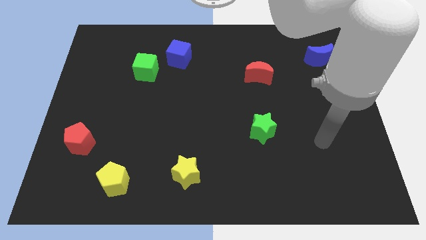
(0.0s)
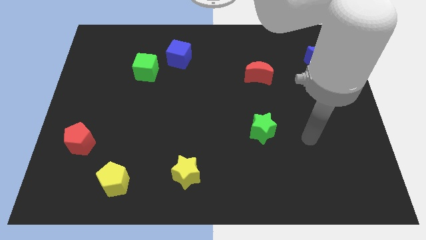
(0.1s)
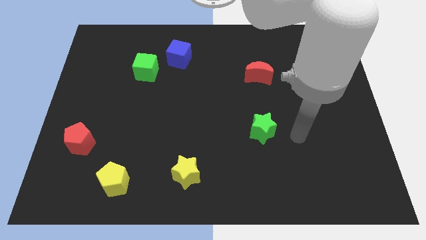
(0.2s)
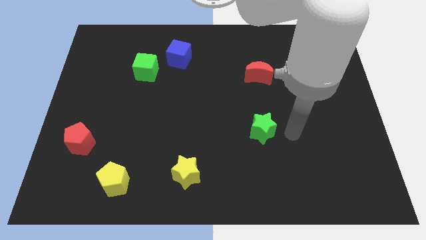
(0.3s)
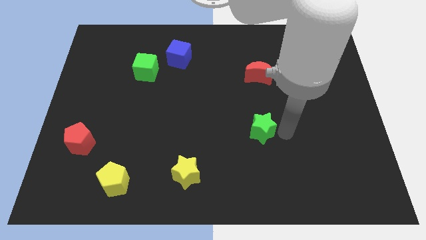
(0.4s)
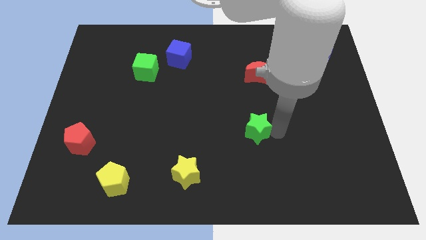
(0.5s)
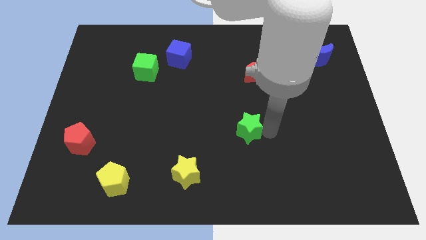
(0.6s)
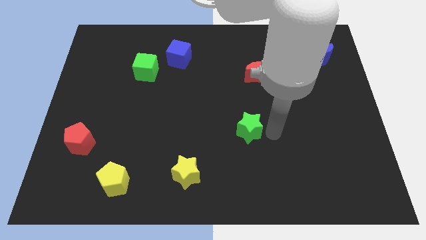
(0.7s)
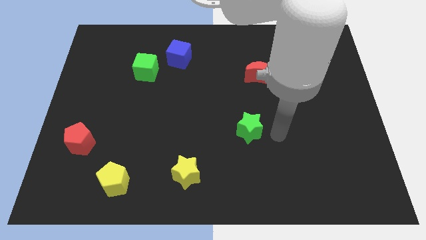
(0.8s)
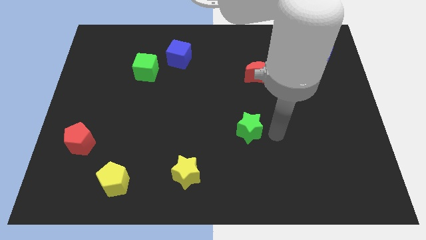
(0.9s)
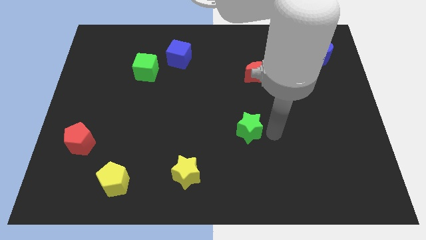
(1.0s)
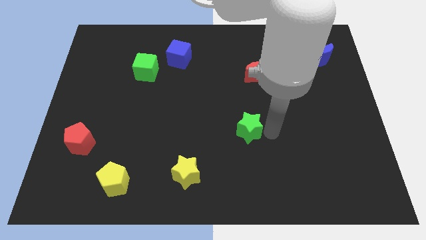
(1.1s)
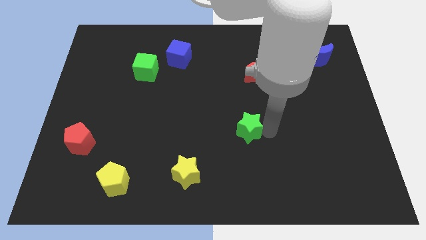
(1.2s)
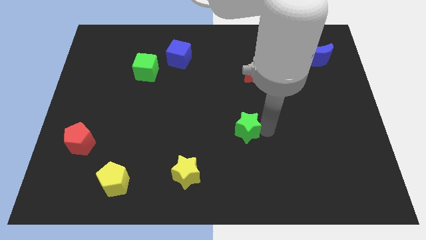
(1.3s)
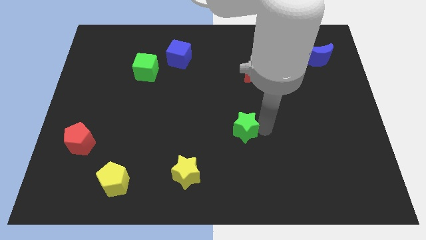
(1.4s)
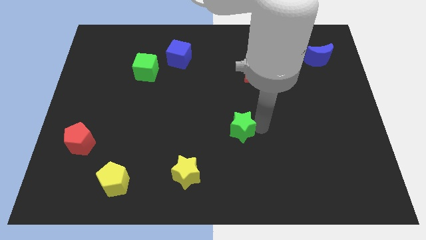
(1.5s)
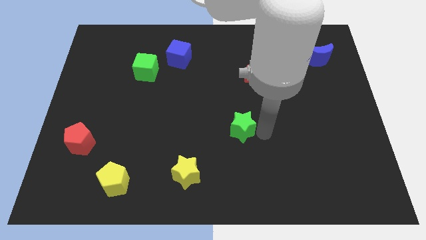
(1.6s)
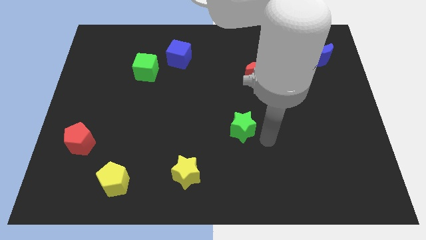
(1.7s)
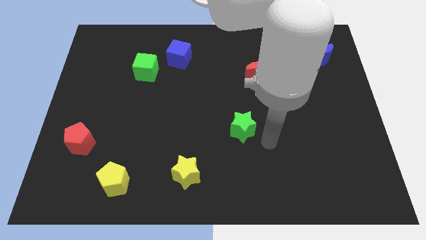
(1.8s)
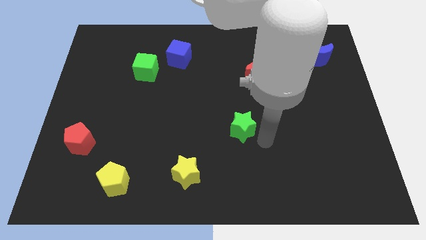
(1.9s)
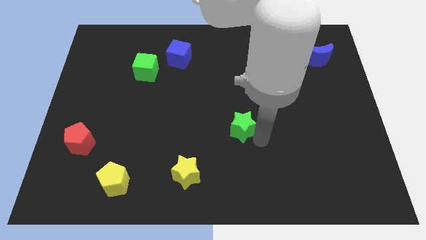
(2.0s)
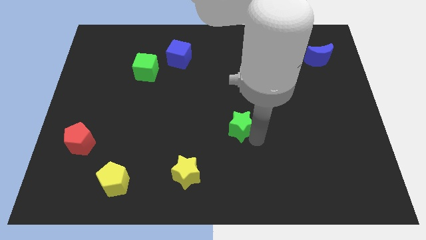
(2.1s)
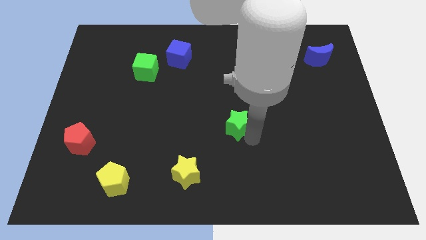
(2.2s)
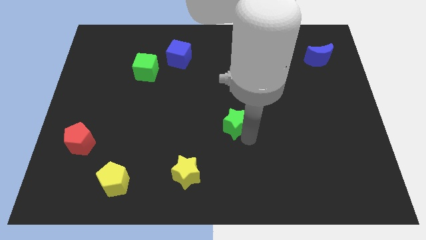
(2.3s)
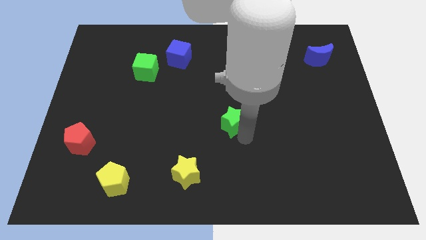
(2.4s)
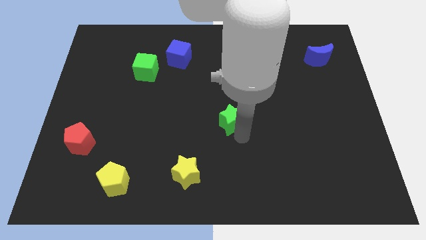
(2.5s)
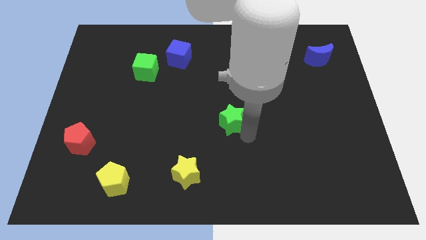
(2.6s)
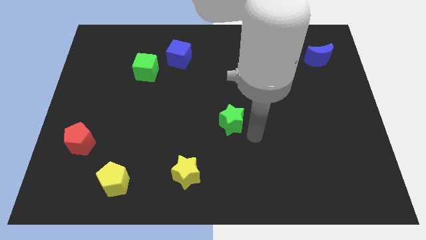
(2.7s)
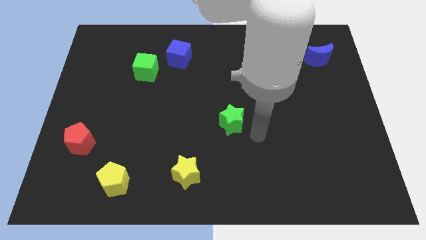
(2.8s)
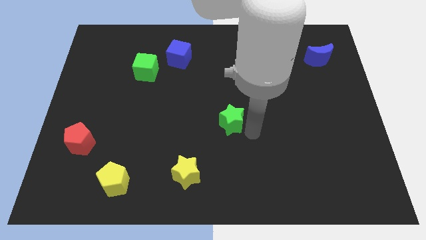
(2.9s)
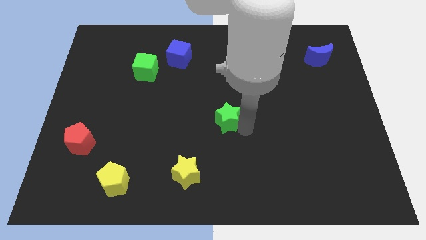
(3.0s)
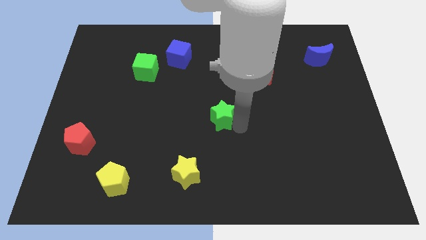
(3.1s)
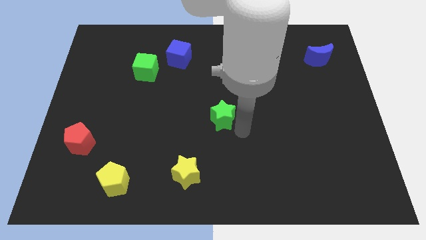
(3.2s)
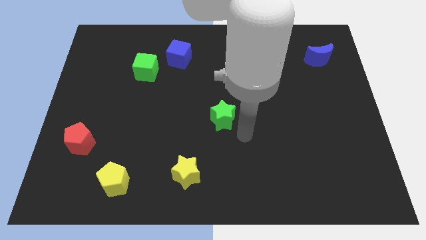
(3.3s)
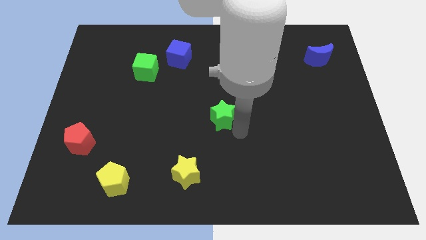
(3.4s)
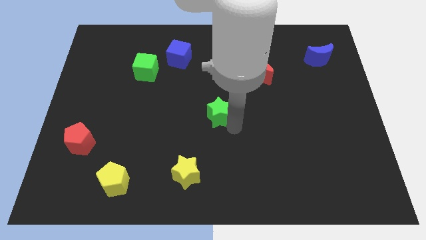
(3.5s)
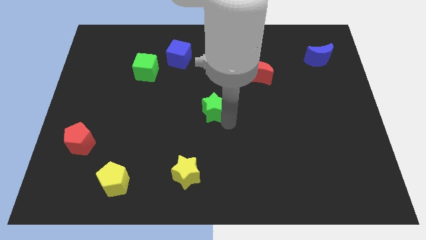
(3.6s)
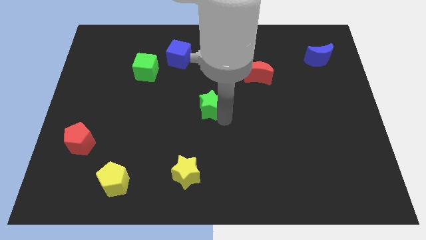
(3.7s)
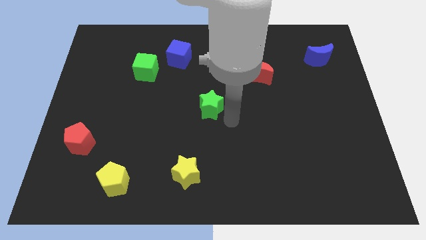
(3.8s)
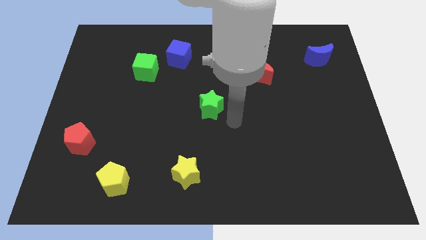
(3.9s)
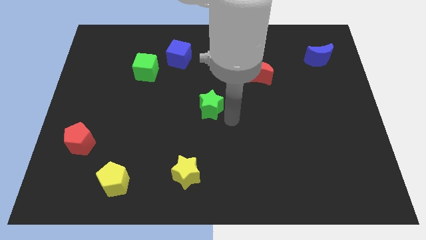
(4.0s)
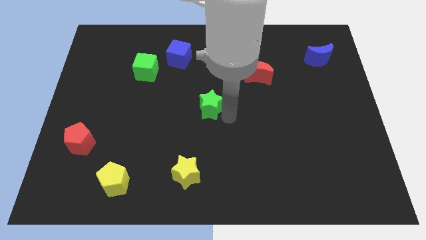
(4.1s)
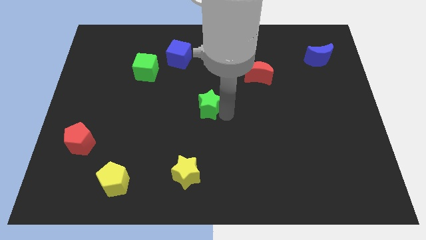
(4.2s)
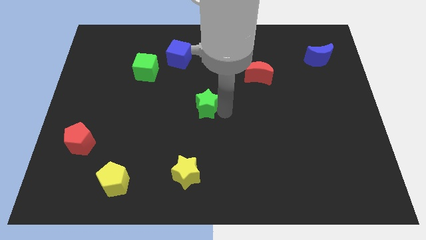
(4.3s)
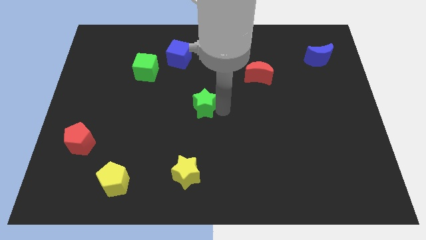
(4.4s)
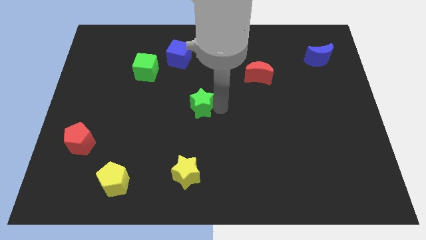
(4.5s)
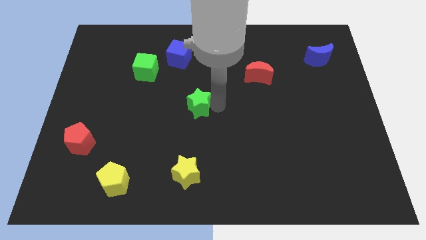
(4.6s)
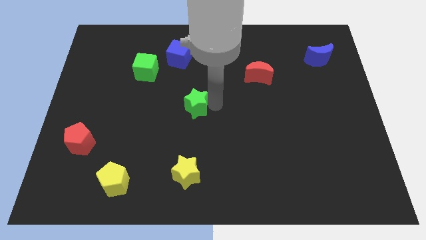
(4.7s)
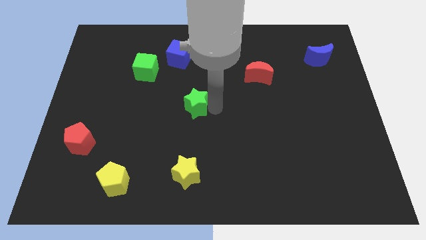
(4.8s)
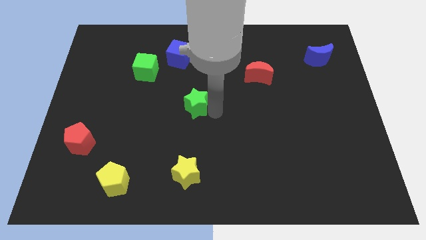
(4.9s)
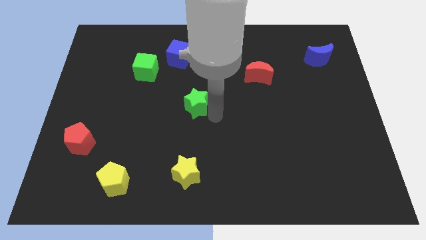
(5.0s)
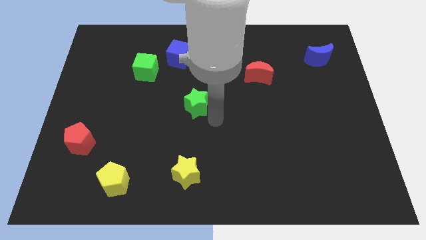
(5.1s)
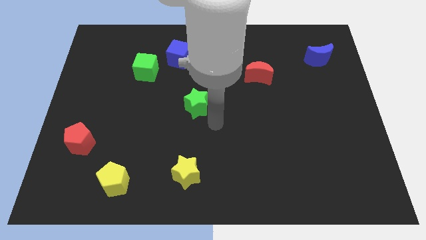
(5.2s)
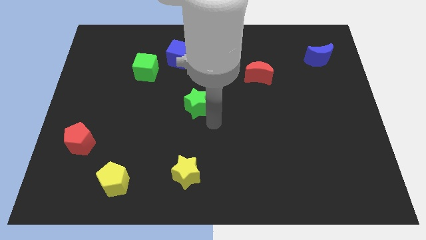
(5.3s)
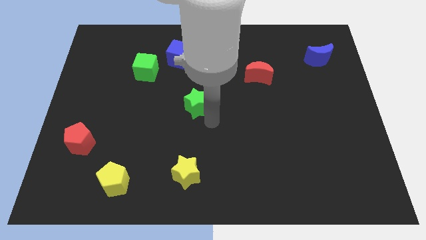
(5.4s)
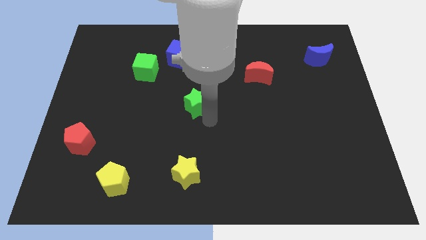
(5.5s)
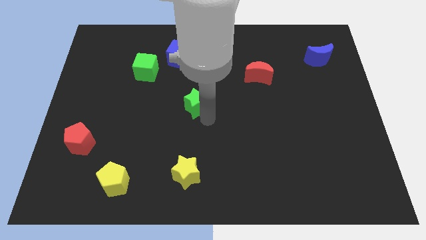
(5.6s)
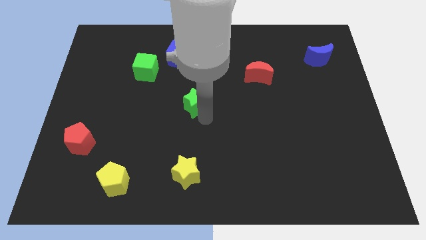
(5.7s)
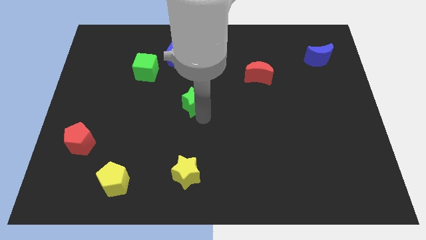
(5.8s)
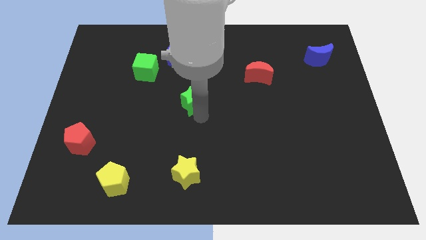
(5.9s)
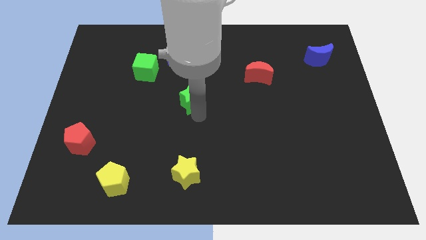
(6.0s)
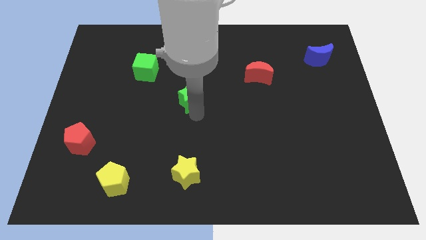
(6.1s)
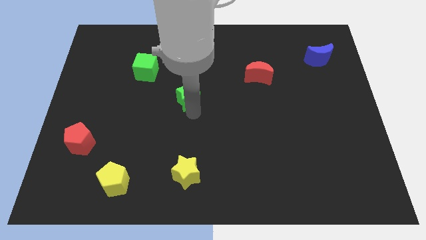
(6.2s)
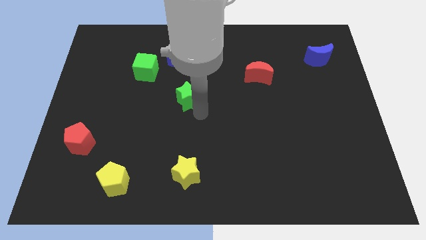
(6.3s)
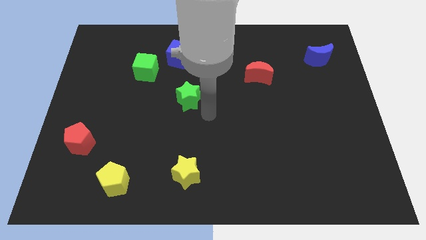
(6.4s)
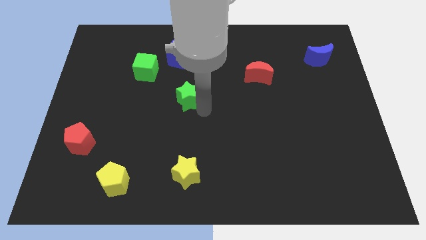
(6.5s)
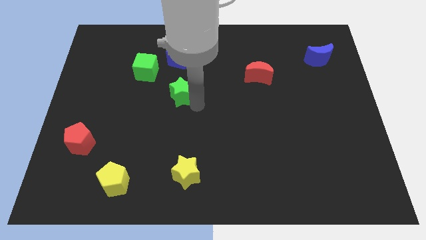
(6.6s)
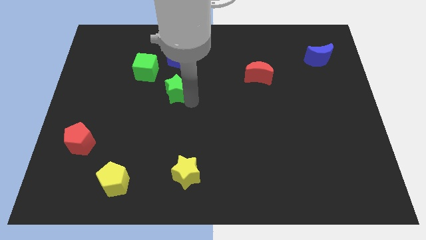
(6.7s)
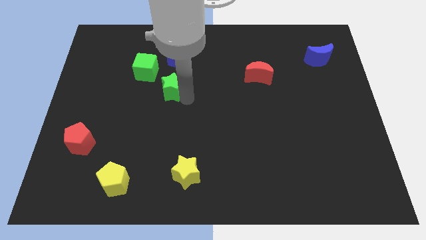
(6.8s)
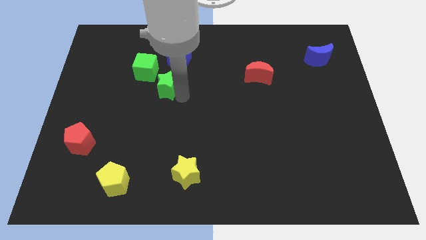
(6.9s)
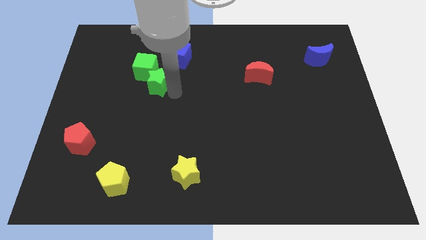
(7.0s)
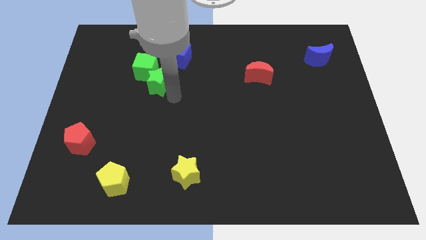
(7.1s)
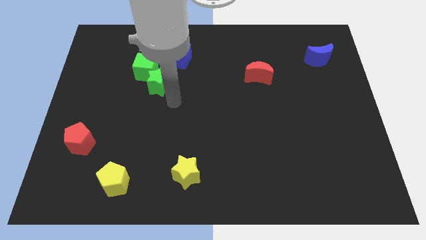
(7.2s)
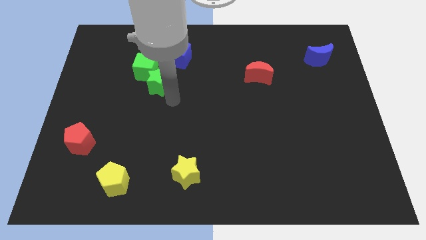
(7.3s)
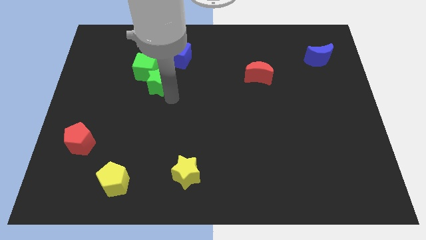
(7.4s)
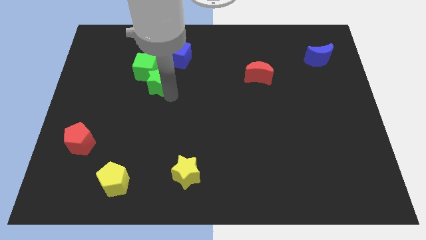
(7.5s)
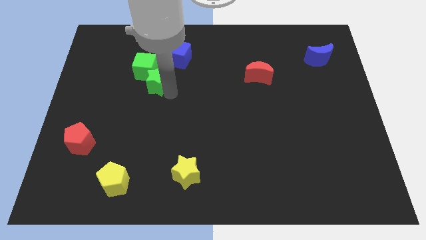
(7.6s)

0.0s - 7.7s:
push the green star next to the green cube
